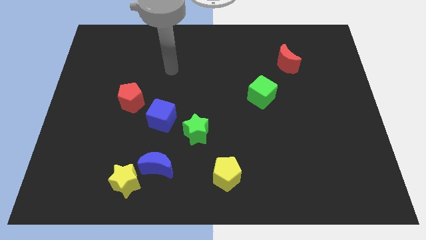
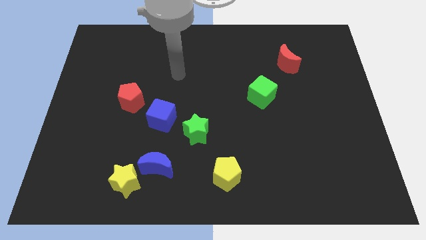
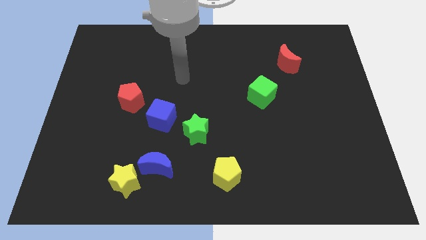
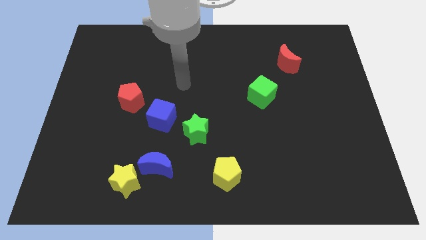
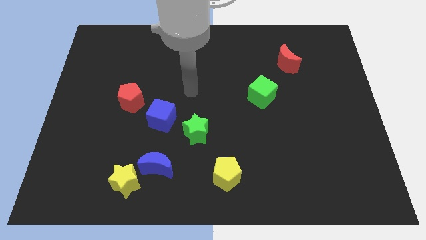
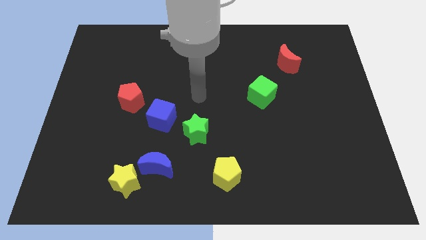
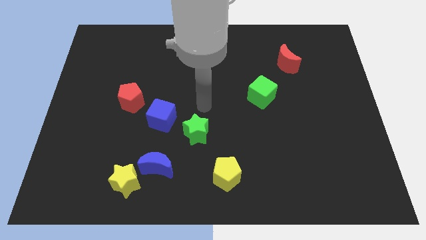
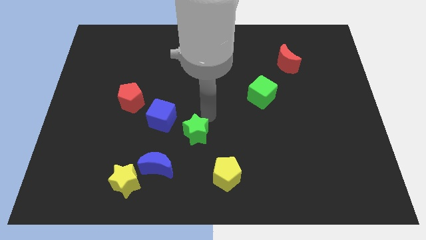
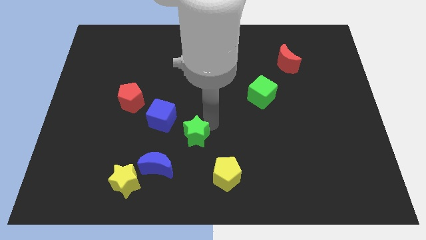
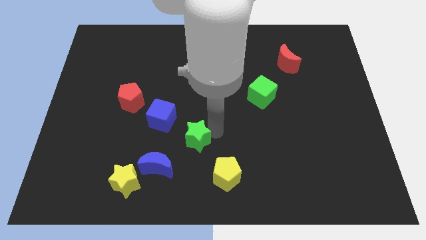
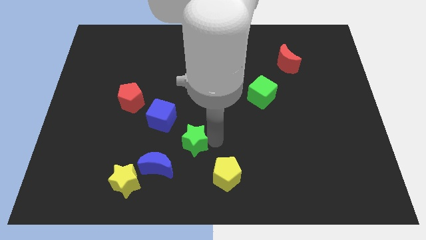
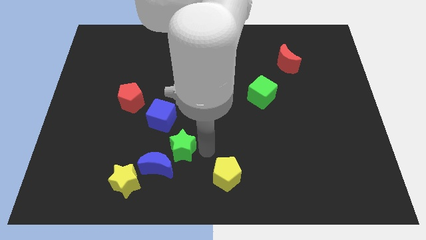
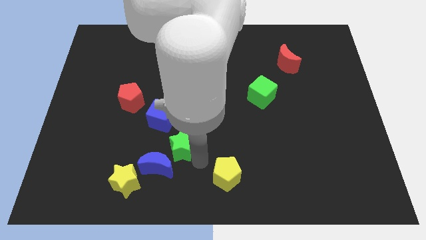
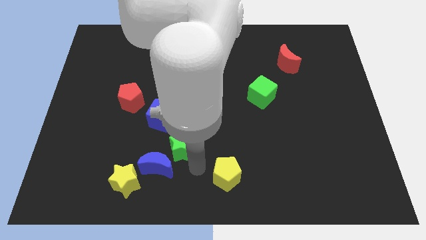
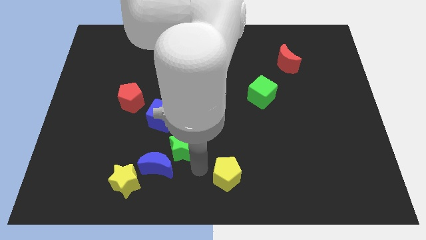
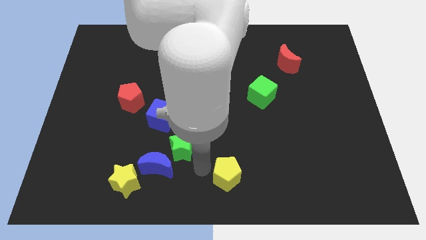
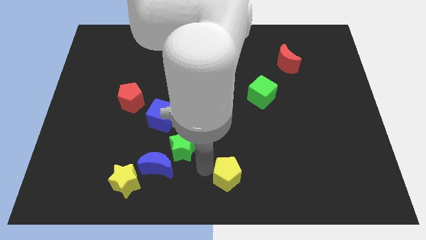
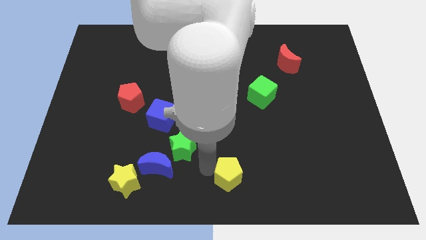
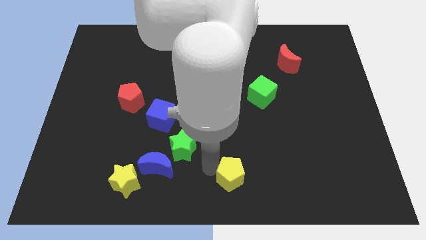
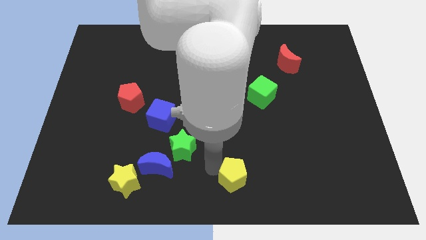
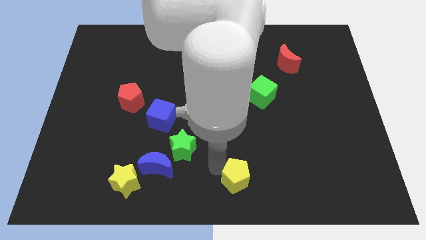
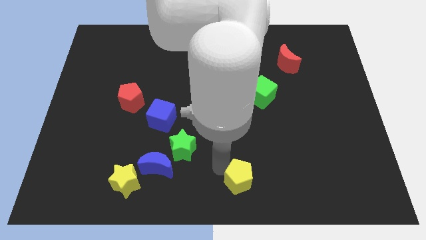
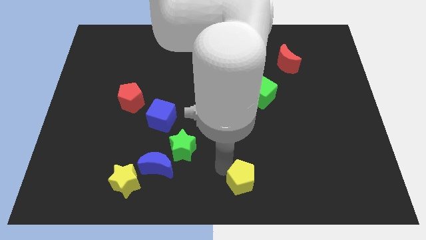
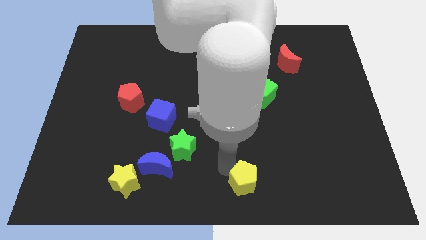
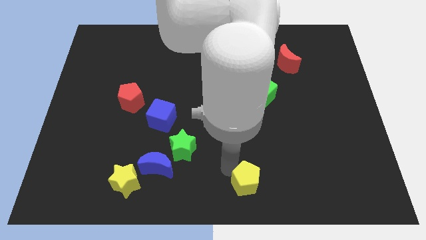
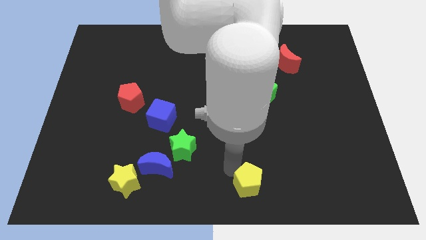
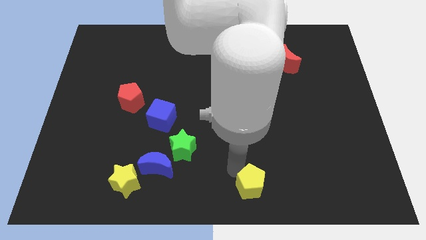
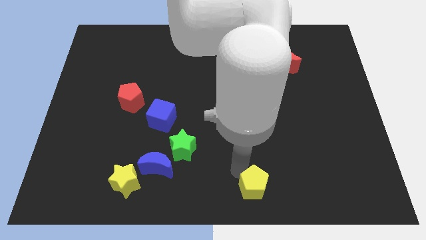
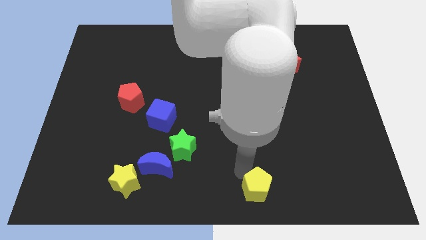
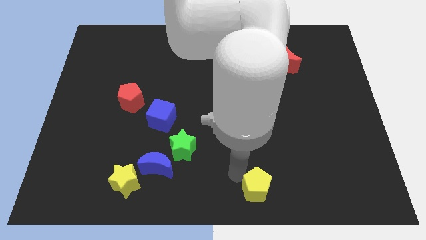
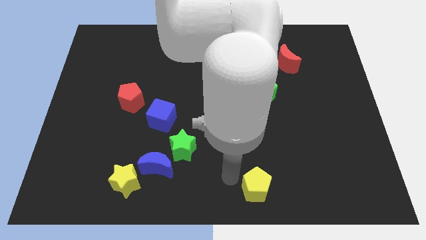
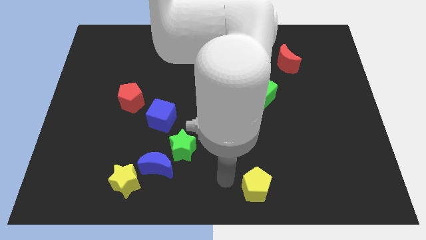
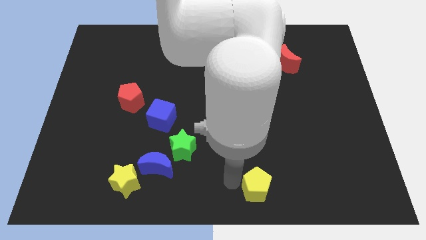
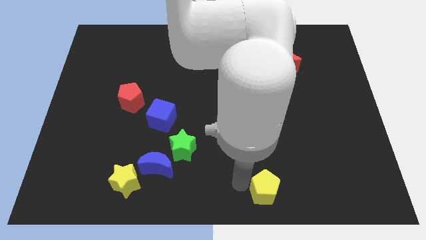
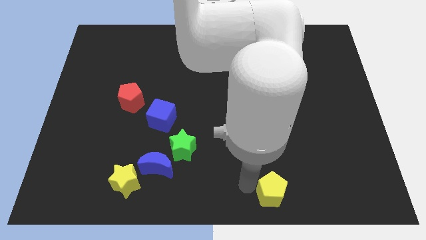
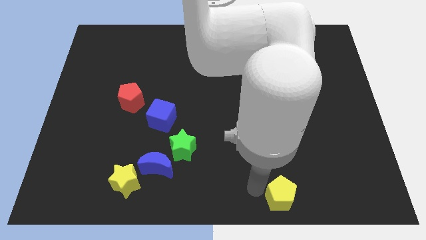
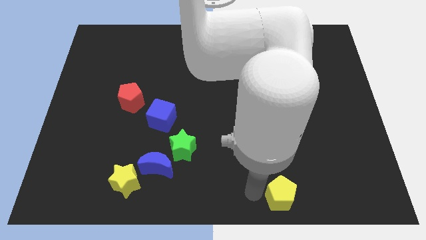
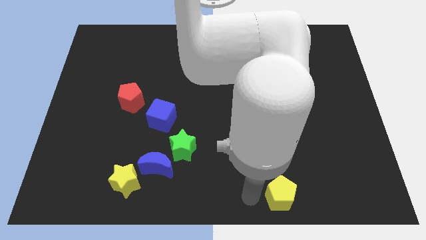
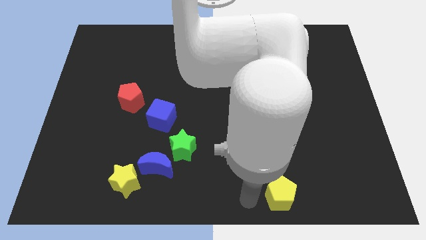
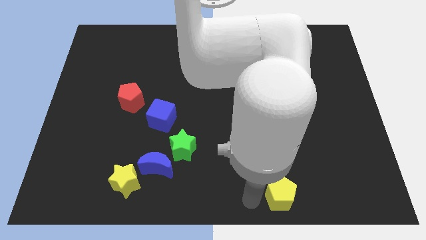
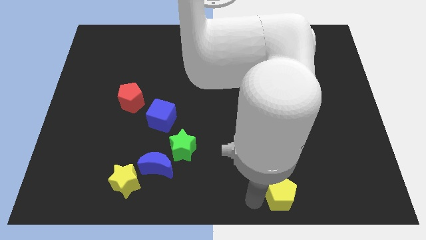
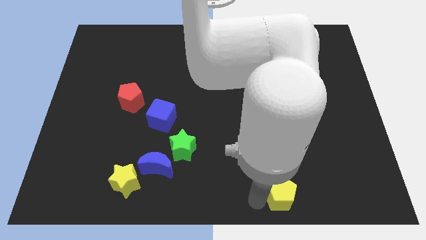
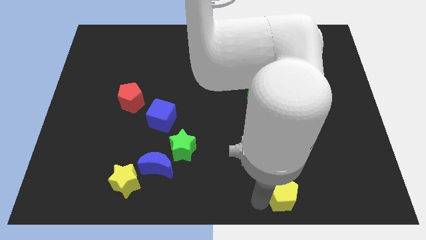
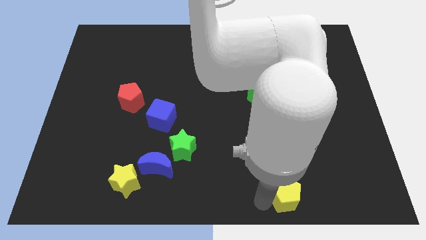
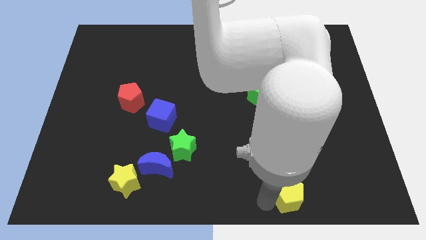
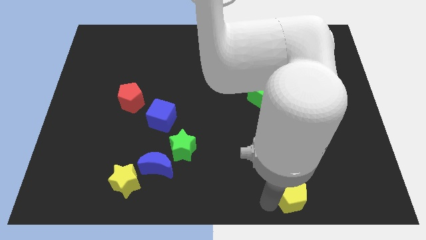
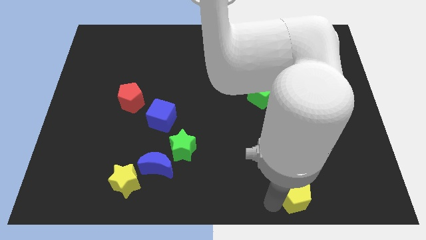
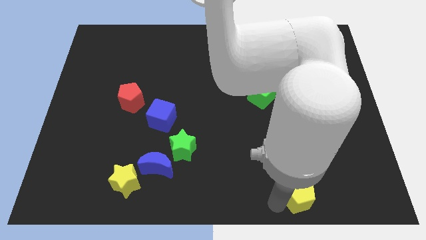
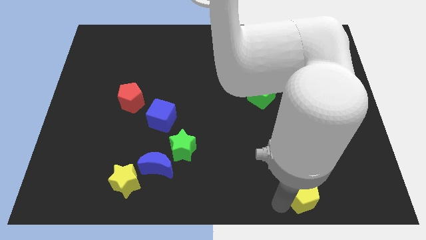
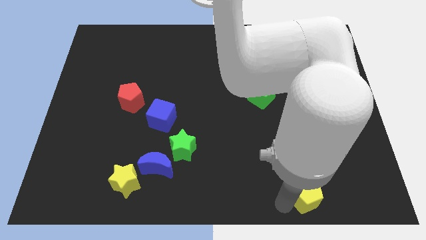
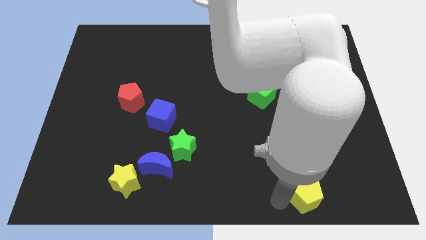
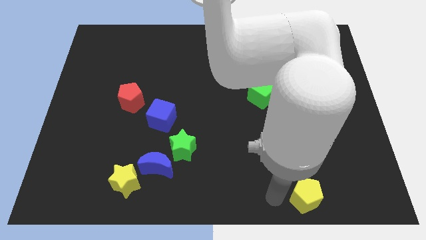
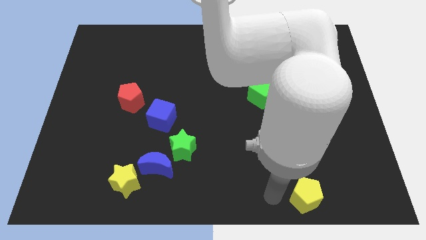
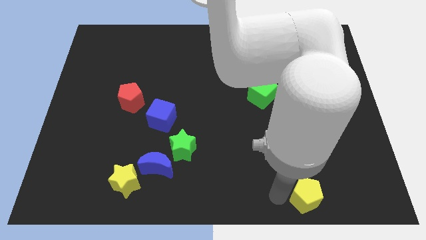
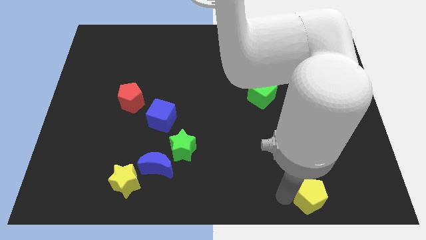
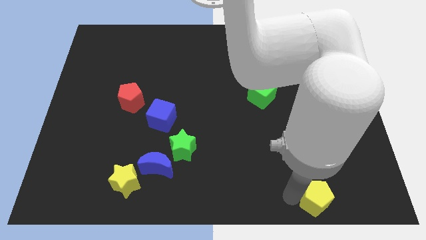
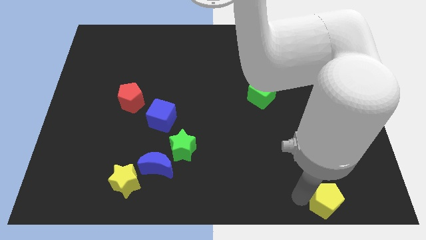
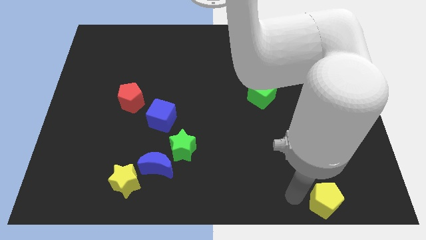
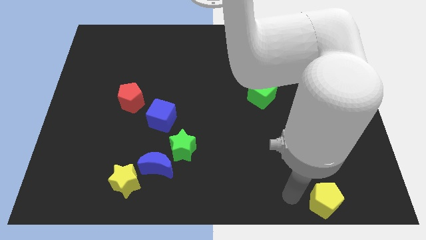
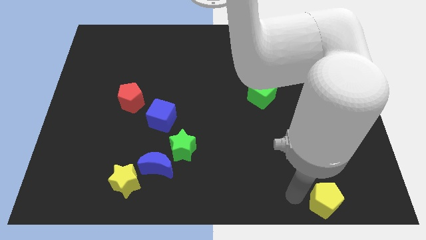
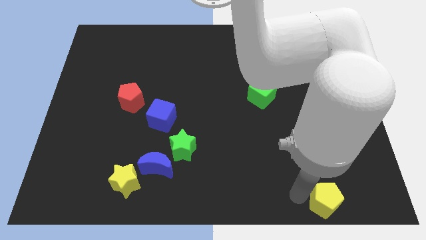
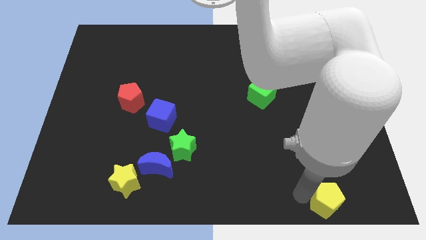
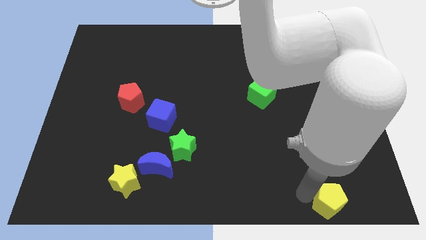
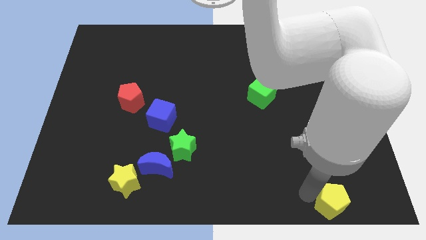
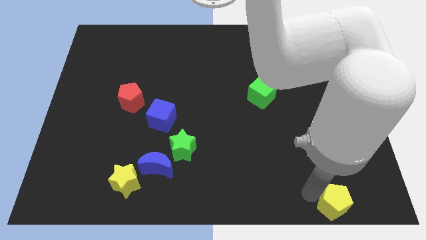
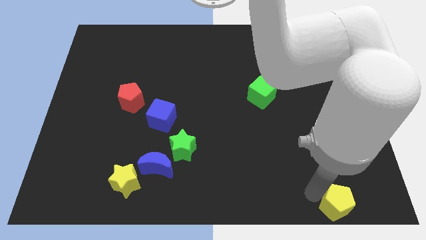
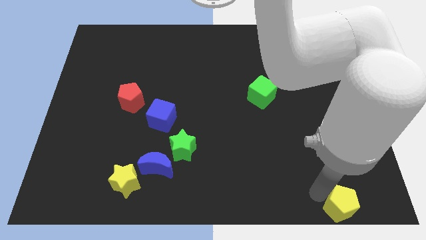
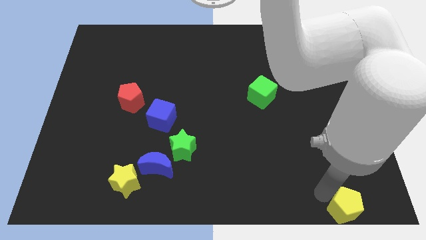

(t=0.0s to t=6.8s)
move the yellow pentagon to the lower right corner
